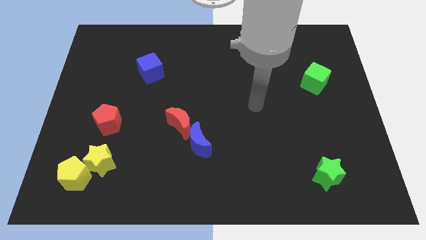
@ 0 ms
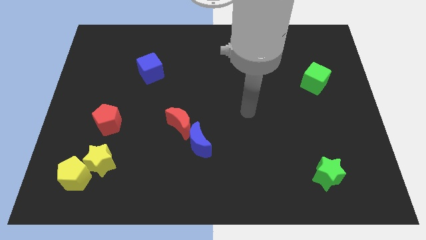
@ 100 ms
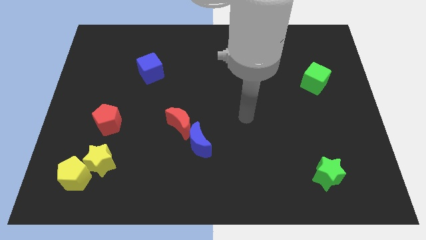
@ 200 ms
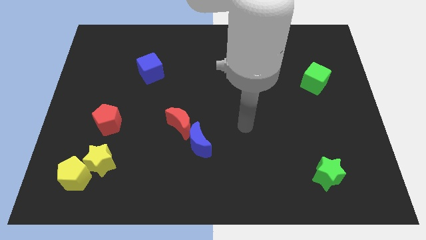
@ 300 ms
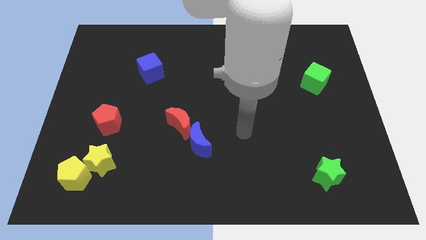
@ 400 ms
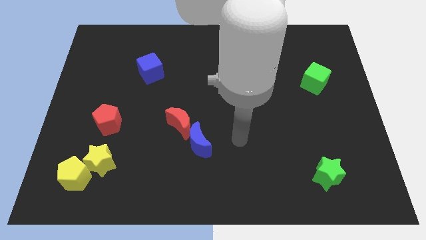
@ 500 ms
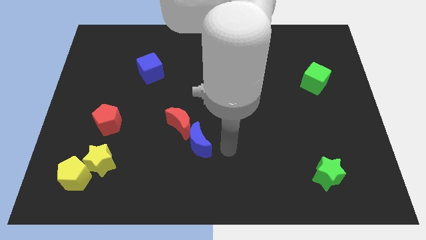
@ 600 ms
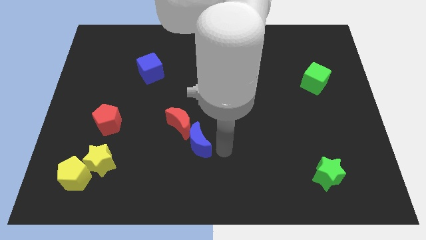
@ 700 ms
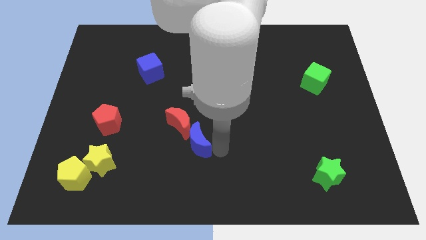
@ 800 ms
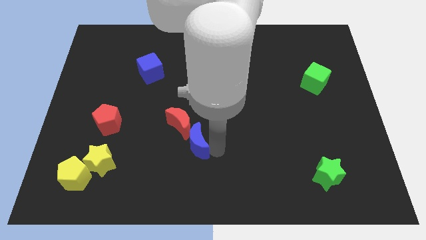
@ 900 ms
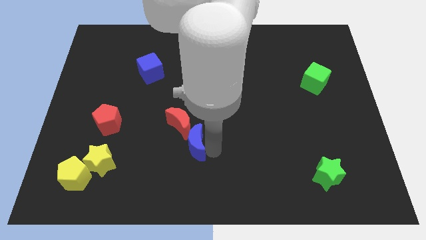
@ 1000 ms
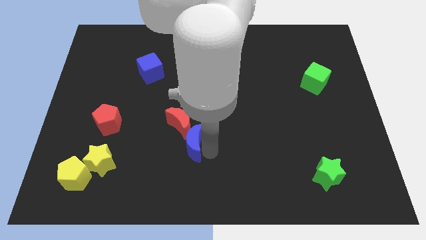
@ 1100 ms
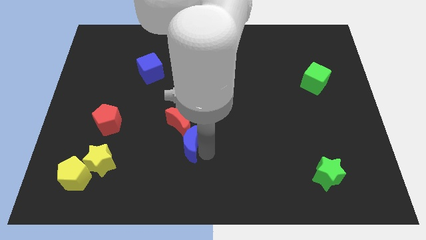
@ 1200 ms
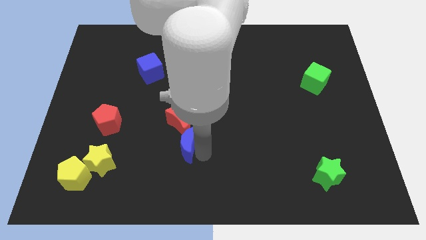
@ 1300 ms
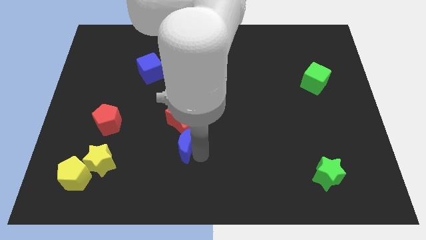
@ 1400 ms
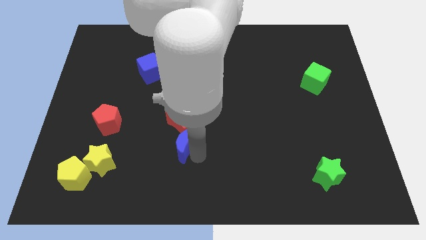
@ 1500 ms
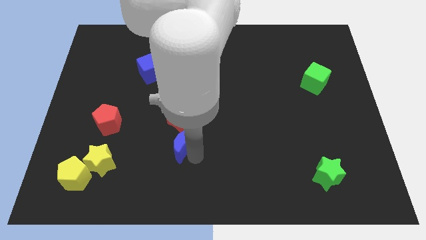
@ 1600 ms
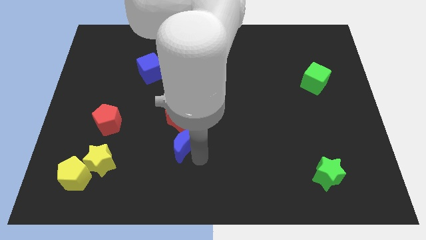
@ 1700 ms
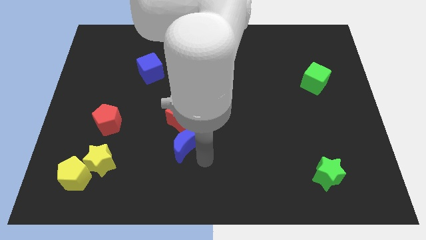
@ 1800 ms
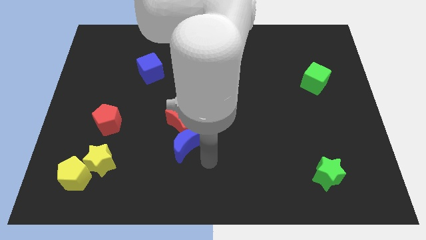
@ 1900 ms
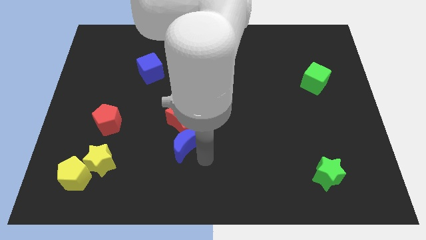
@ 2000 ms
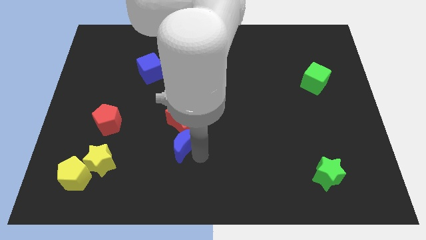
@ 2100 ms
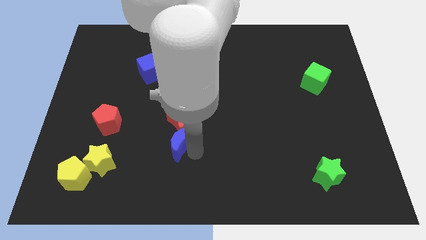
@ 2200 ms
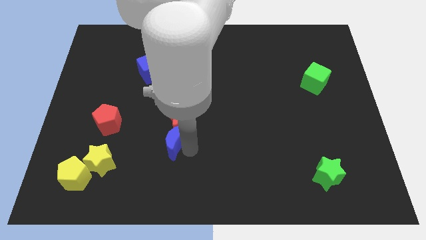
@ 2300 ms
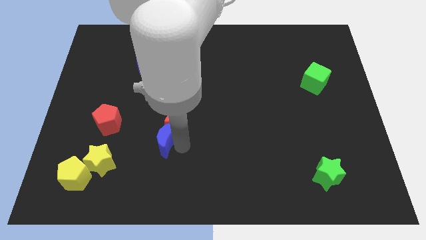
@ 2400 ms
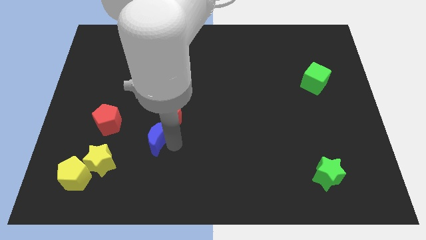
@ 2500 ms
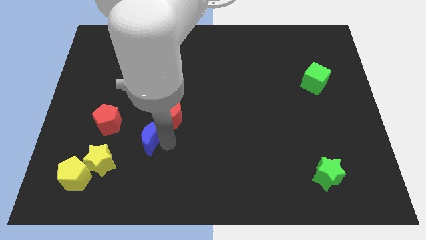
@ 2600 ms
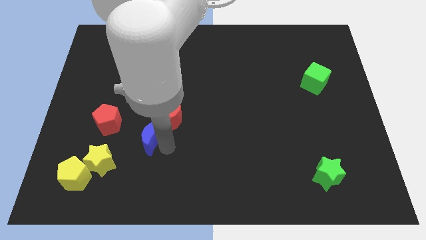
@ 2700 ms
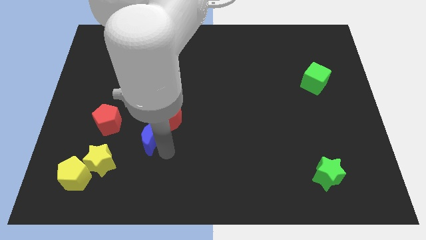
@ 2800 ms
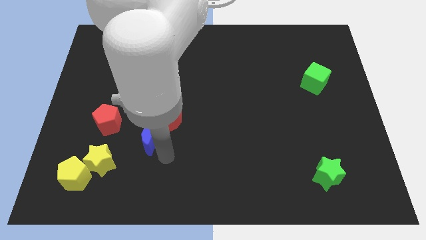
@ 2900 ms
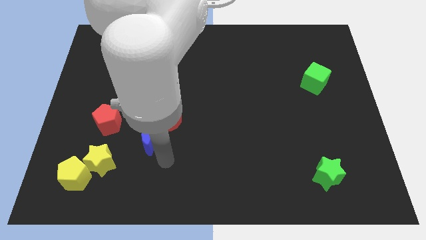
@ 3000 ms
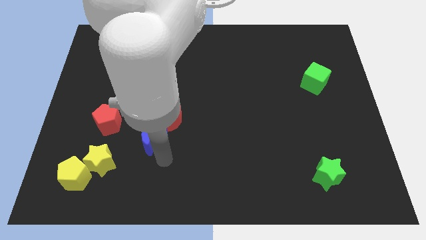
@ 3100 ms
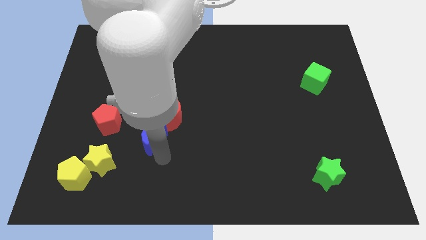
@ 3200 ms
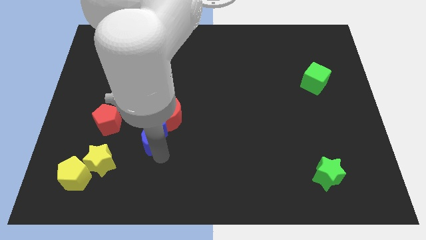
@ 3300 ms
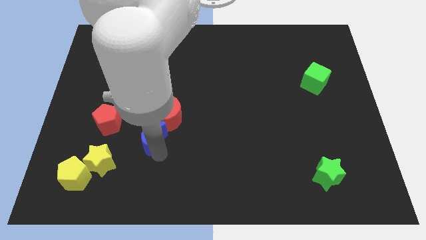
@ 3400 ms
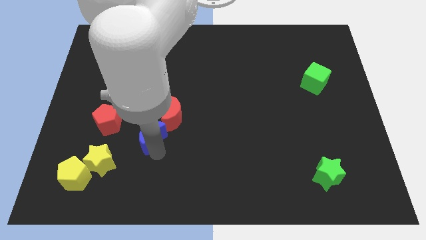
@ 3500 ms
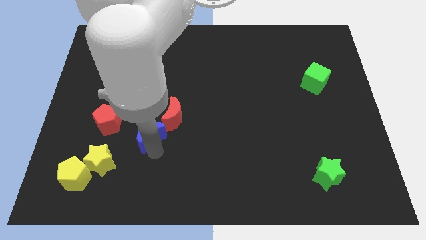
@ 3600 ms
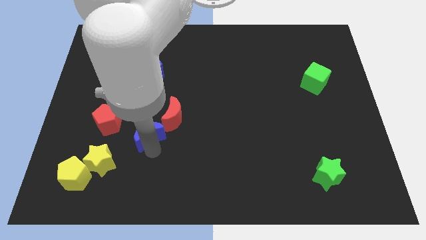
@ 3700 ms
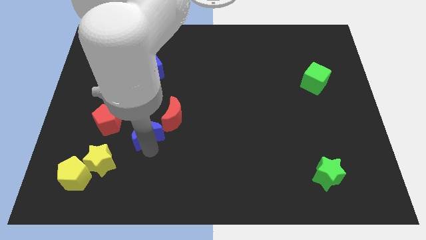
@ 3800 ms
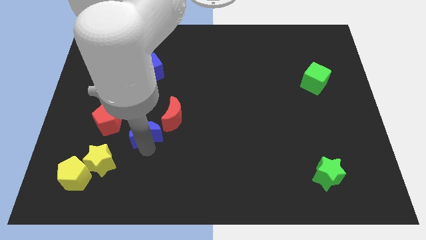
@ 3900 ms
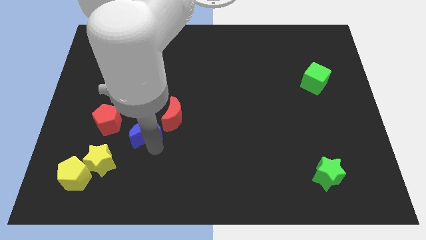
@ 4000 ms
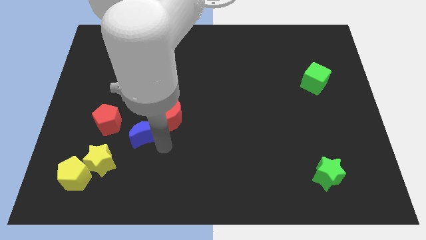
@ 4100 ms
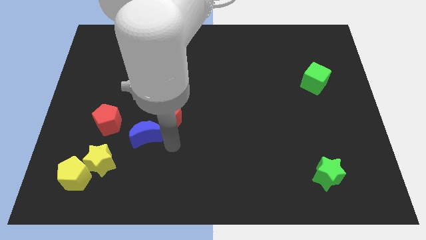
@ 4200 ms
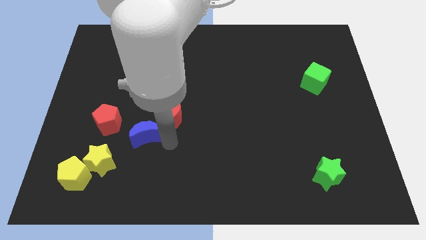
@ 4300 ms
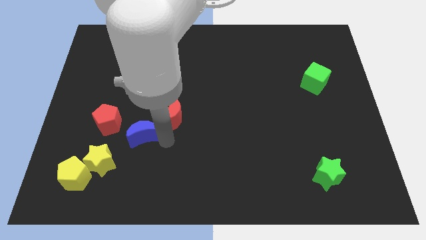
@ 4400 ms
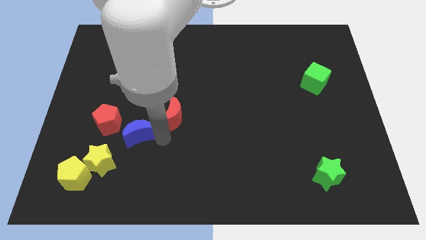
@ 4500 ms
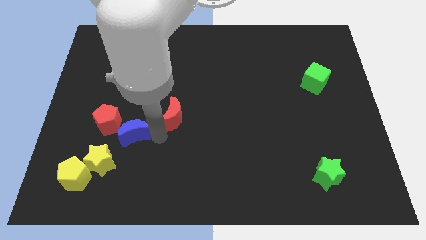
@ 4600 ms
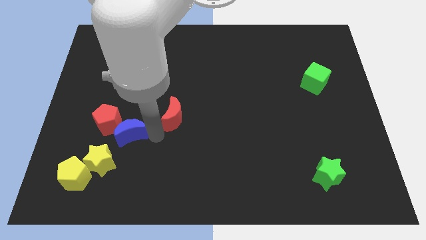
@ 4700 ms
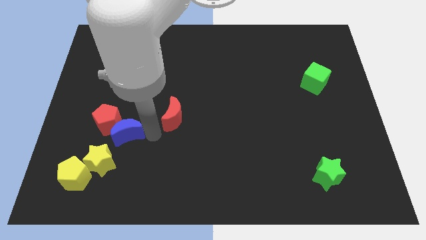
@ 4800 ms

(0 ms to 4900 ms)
slide the blue moon next to the red pentagon

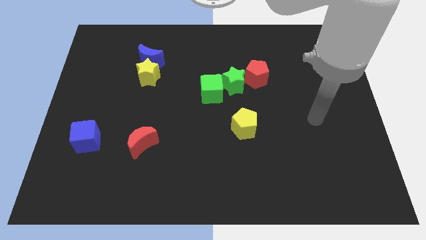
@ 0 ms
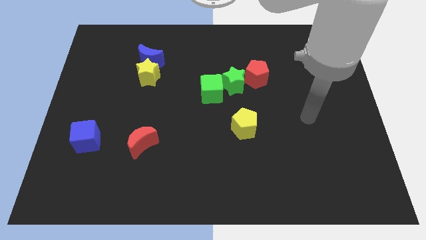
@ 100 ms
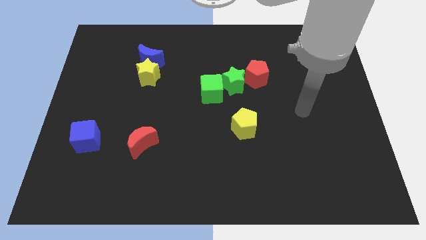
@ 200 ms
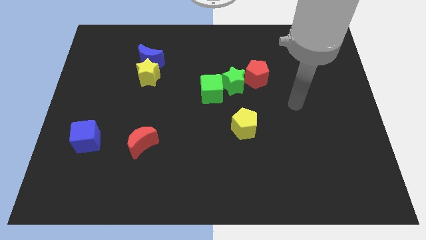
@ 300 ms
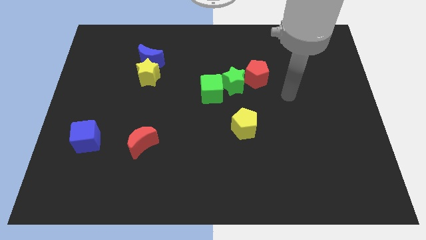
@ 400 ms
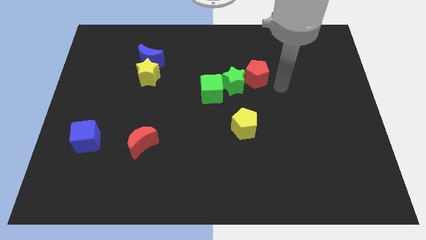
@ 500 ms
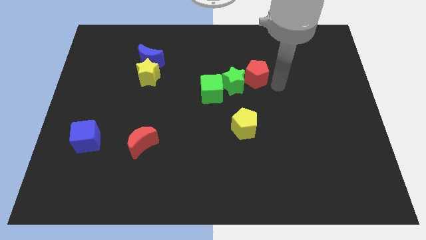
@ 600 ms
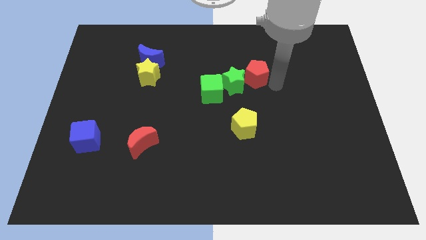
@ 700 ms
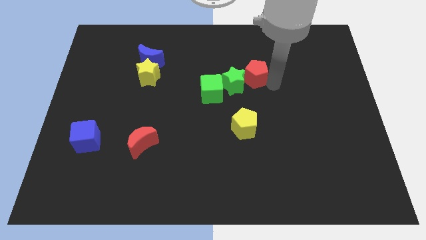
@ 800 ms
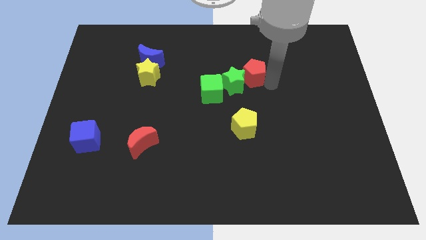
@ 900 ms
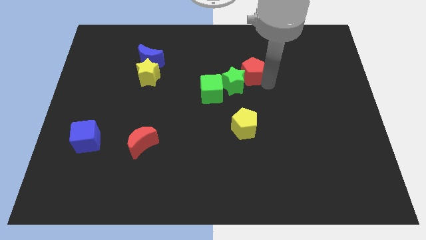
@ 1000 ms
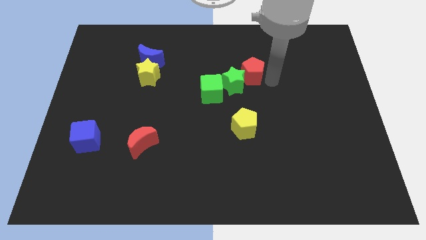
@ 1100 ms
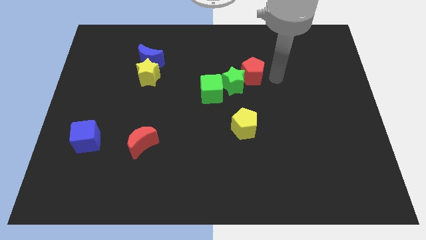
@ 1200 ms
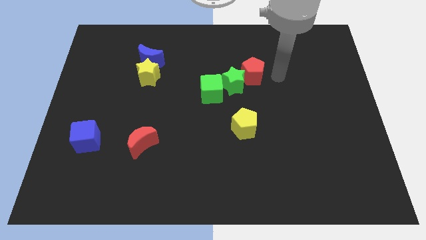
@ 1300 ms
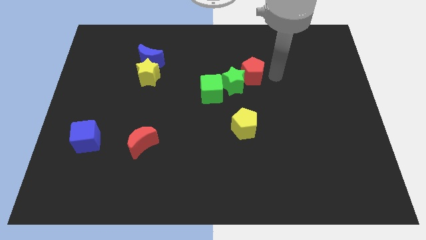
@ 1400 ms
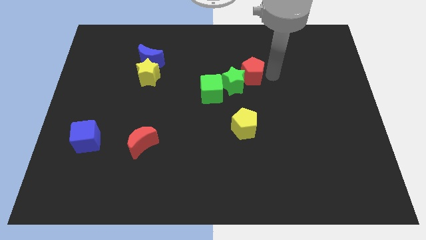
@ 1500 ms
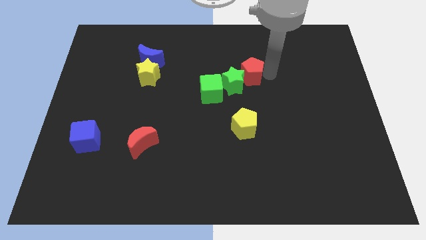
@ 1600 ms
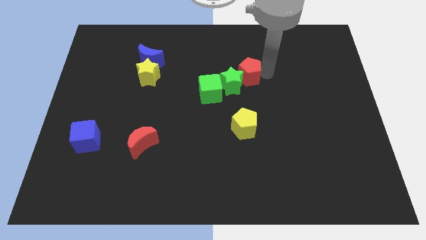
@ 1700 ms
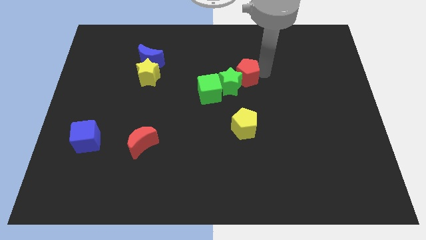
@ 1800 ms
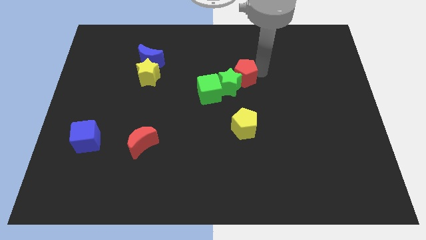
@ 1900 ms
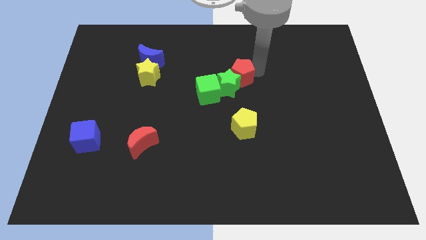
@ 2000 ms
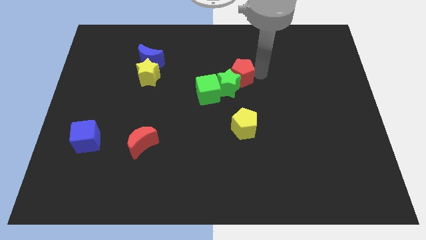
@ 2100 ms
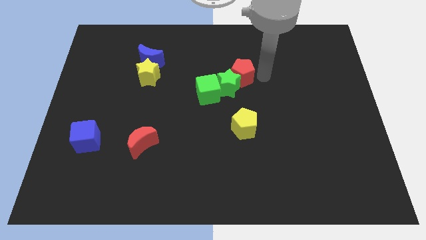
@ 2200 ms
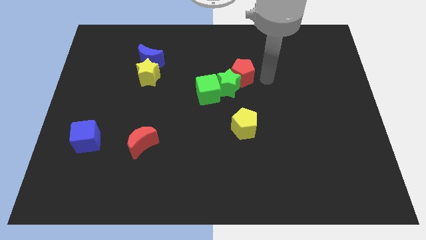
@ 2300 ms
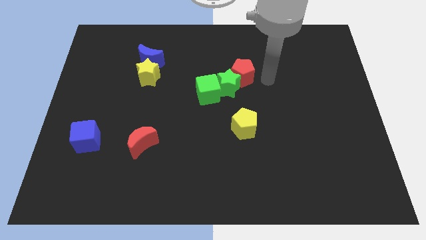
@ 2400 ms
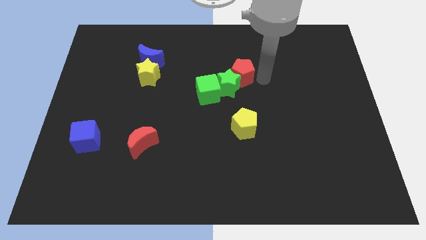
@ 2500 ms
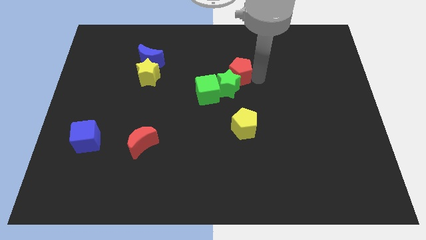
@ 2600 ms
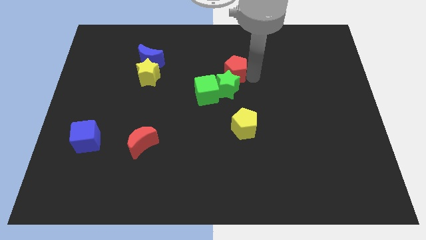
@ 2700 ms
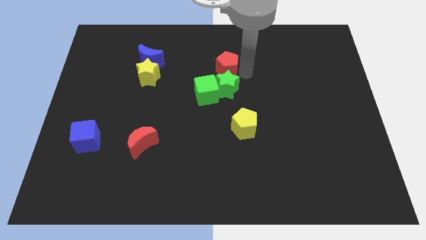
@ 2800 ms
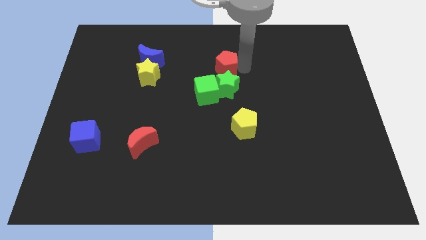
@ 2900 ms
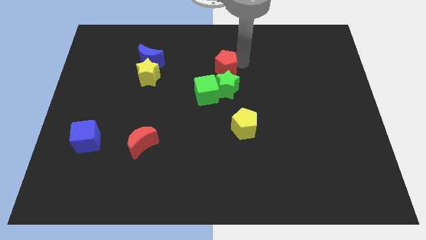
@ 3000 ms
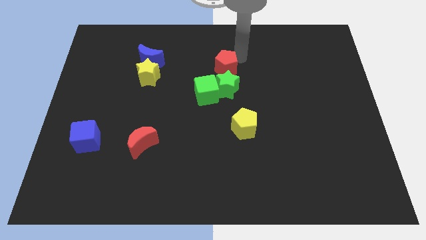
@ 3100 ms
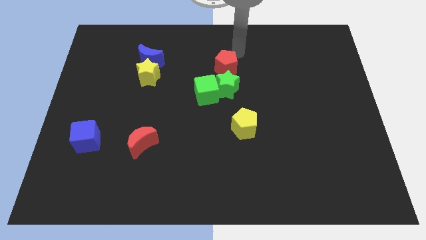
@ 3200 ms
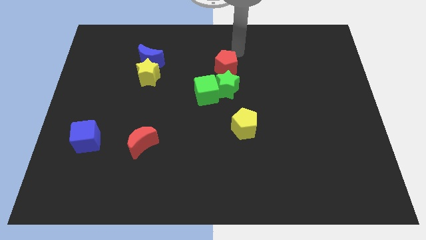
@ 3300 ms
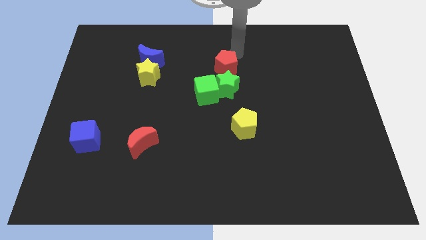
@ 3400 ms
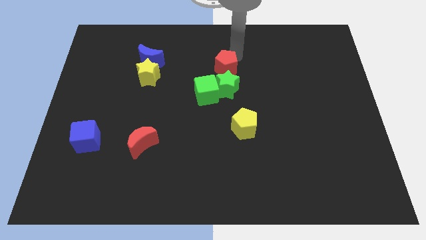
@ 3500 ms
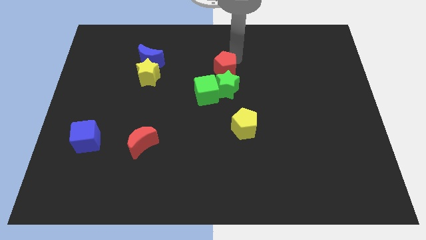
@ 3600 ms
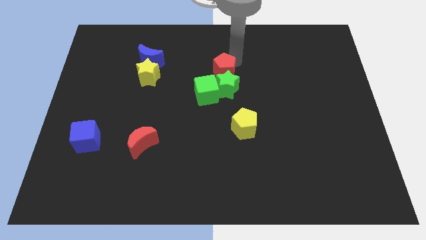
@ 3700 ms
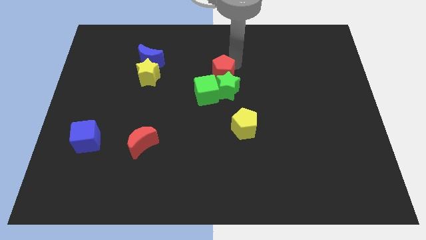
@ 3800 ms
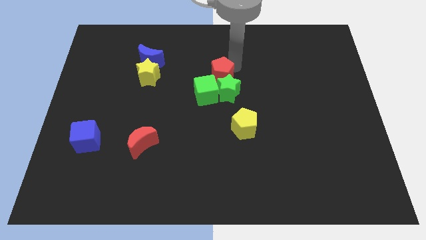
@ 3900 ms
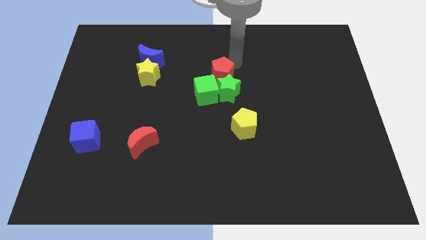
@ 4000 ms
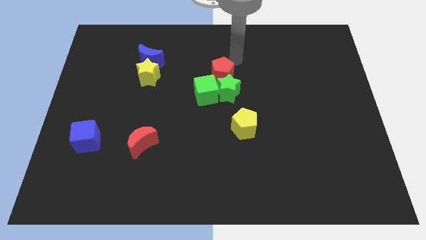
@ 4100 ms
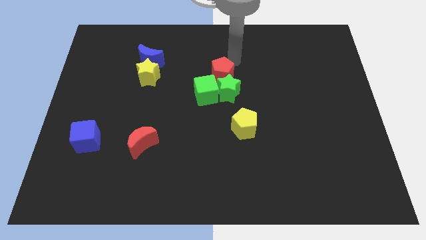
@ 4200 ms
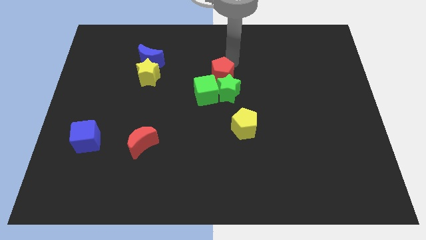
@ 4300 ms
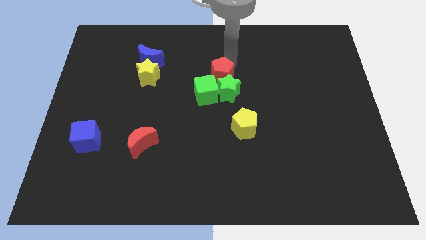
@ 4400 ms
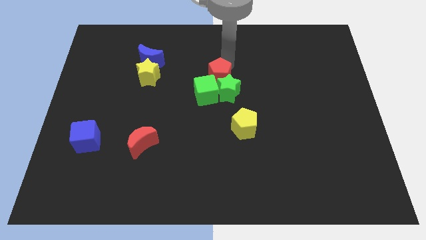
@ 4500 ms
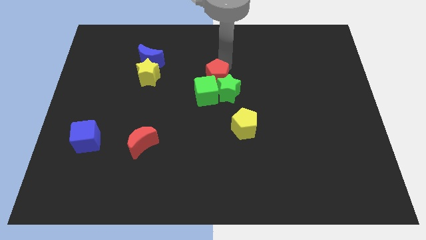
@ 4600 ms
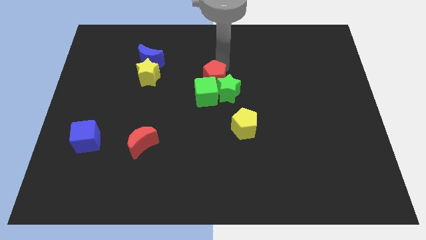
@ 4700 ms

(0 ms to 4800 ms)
push the red pentagon towards the green cube
